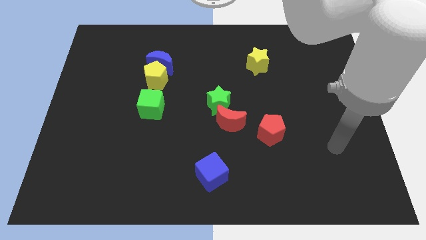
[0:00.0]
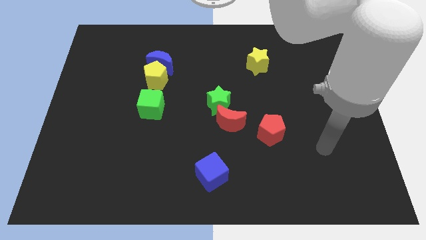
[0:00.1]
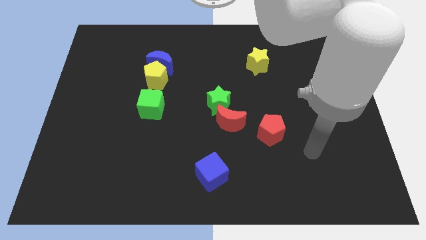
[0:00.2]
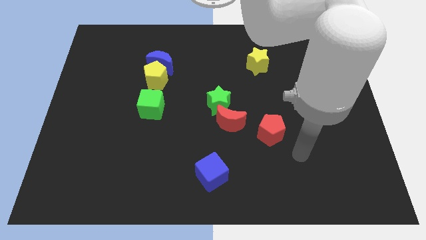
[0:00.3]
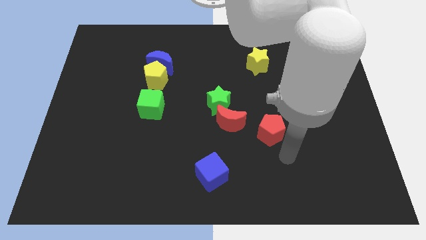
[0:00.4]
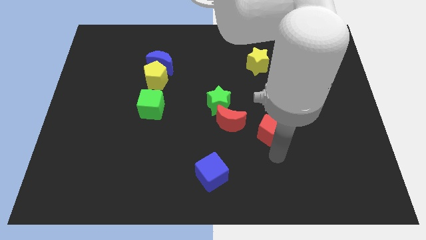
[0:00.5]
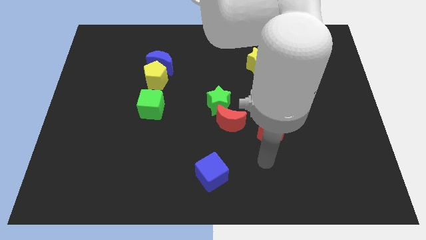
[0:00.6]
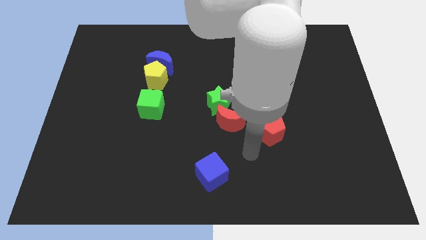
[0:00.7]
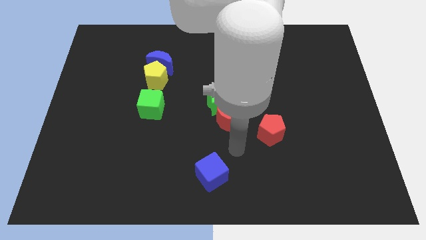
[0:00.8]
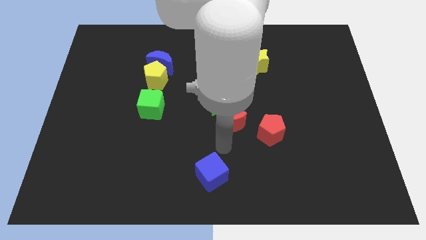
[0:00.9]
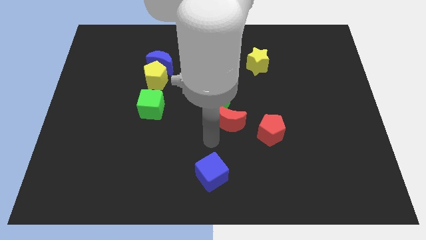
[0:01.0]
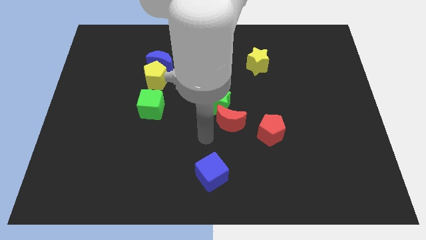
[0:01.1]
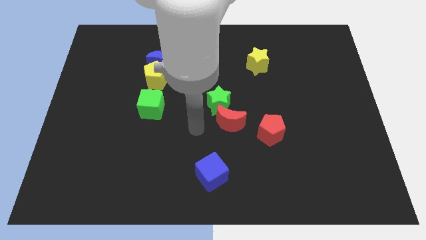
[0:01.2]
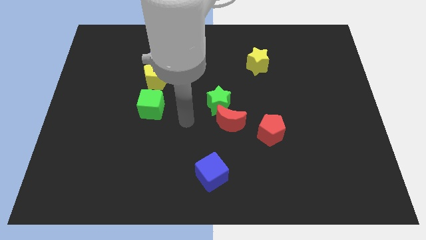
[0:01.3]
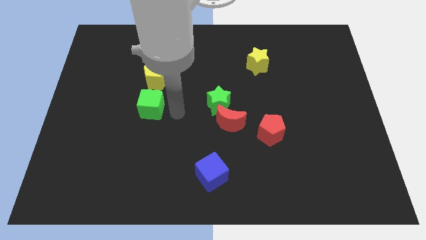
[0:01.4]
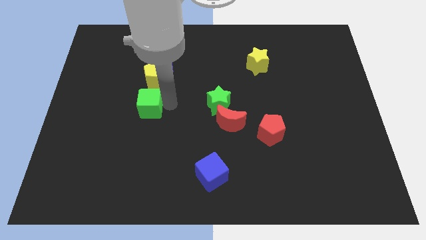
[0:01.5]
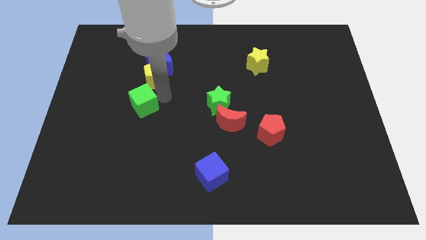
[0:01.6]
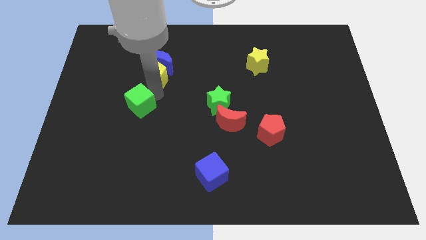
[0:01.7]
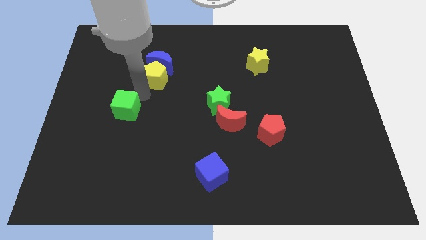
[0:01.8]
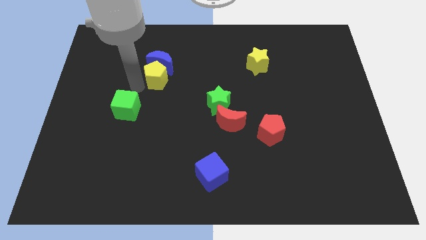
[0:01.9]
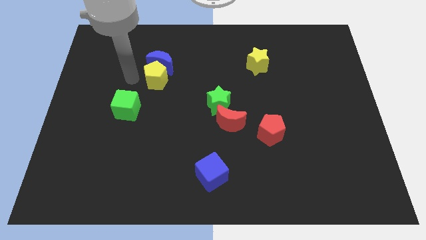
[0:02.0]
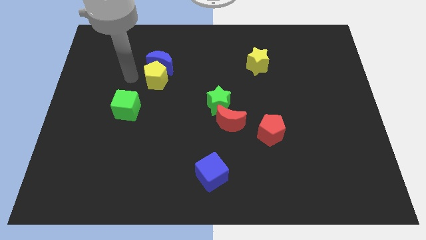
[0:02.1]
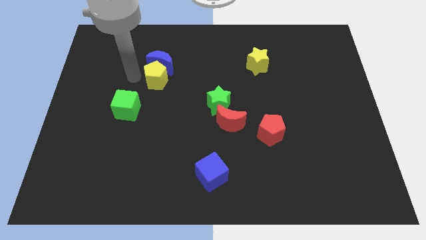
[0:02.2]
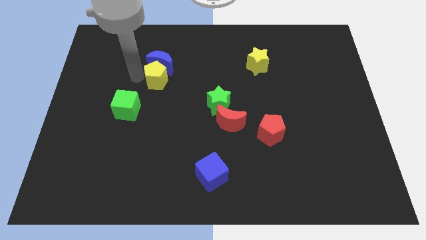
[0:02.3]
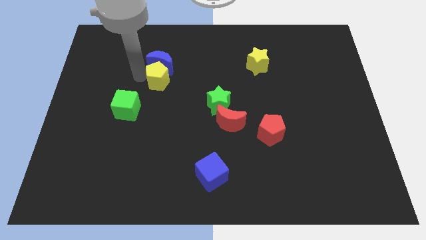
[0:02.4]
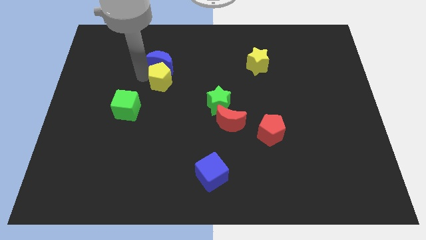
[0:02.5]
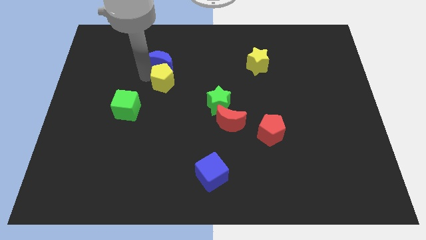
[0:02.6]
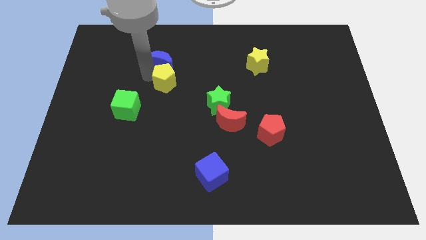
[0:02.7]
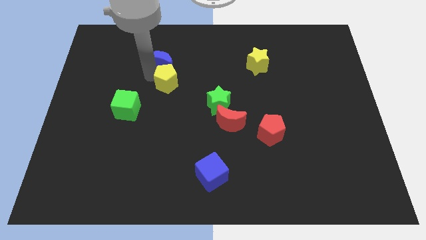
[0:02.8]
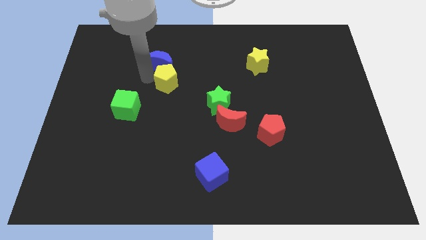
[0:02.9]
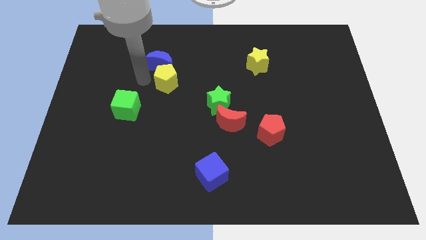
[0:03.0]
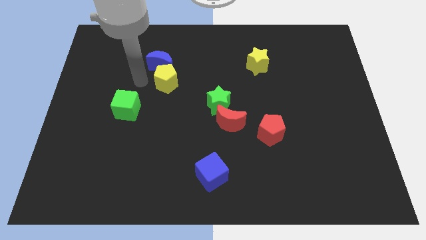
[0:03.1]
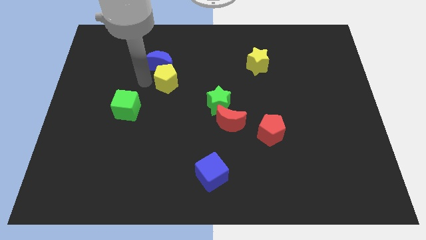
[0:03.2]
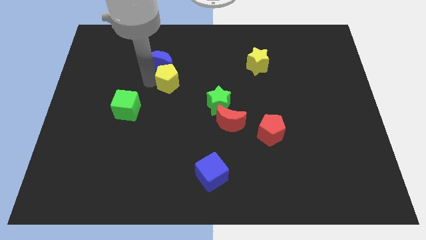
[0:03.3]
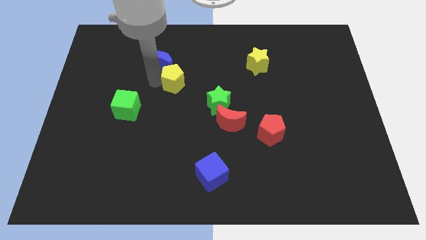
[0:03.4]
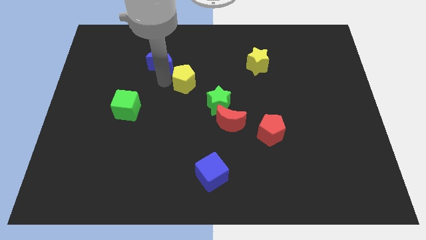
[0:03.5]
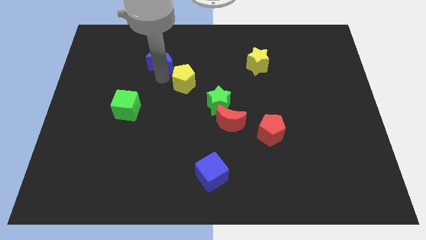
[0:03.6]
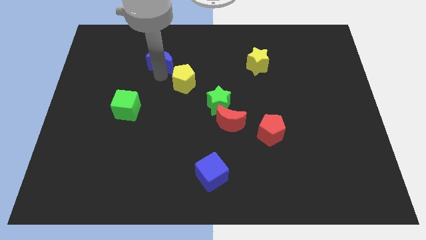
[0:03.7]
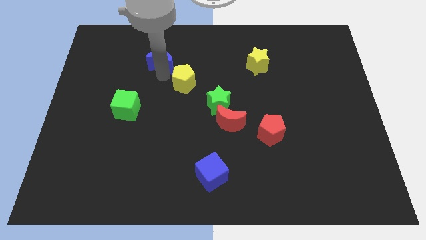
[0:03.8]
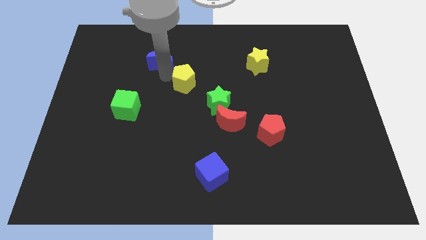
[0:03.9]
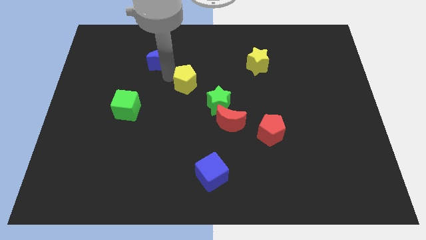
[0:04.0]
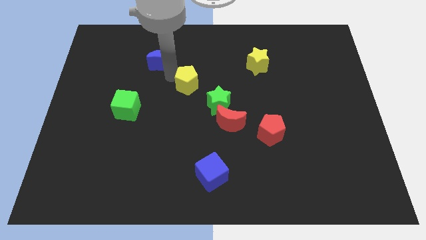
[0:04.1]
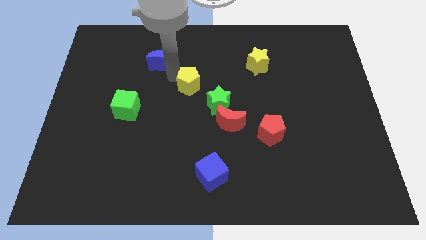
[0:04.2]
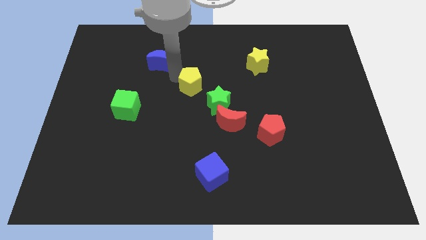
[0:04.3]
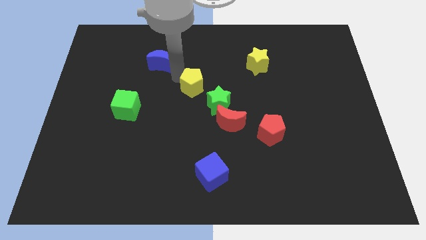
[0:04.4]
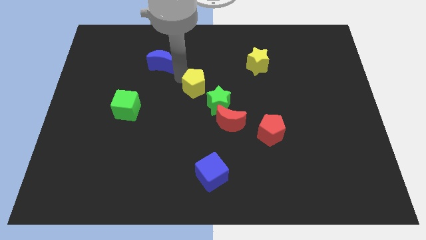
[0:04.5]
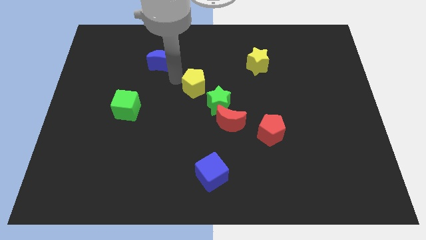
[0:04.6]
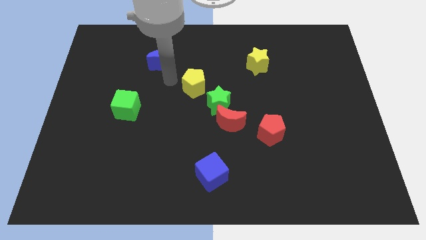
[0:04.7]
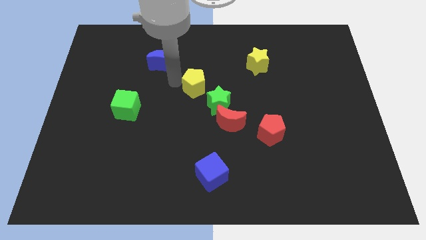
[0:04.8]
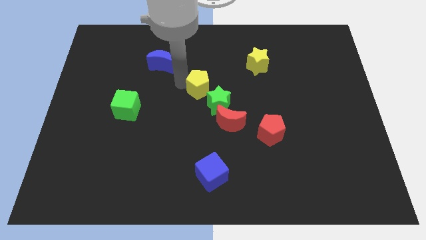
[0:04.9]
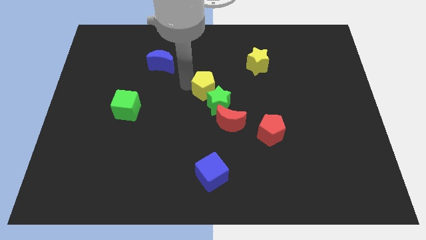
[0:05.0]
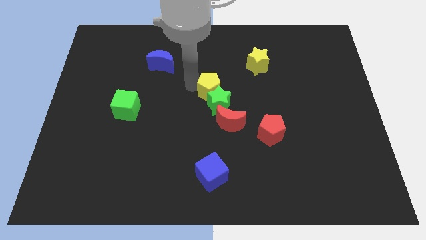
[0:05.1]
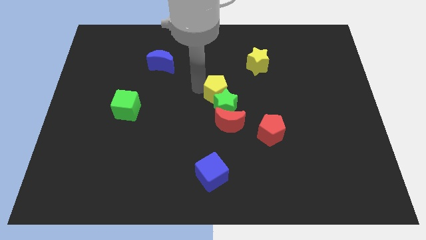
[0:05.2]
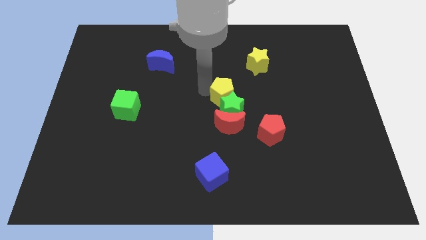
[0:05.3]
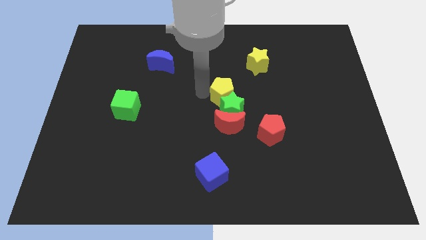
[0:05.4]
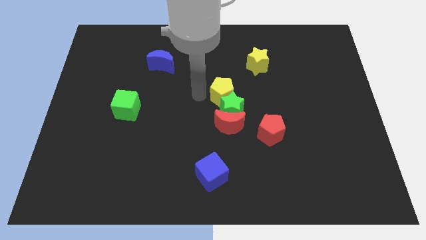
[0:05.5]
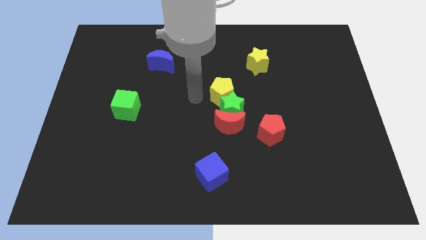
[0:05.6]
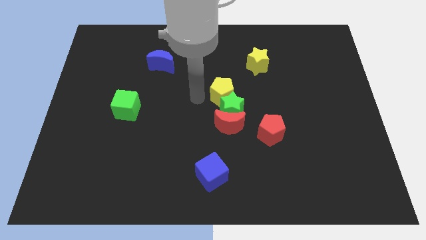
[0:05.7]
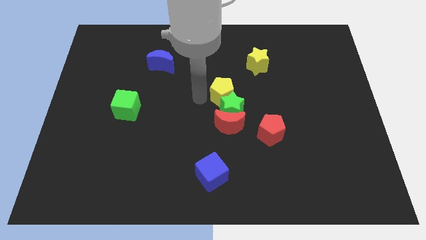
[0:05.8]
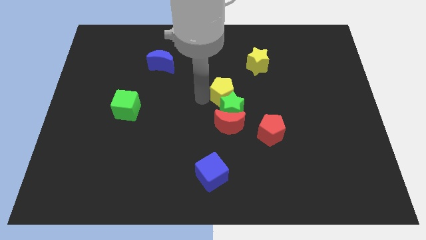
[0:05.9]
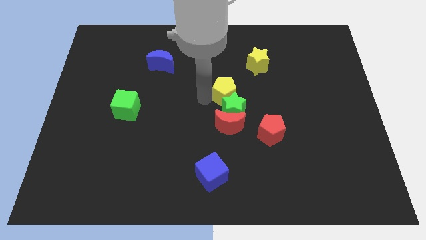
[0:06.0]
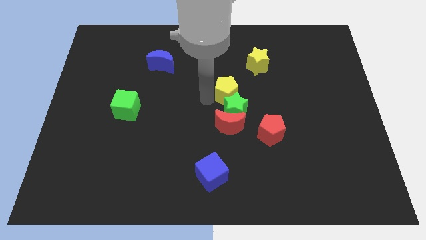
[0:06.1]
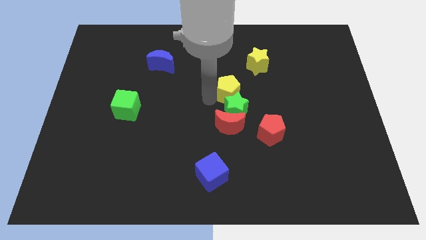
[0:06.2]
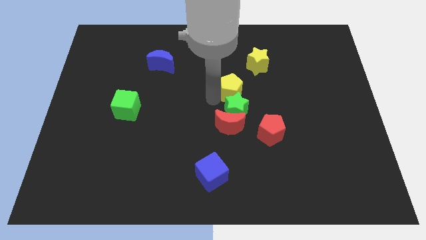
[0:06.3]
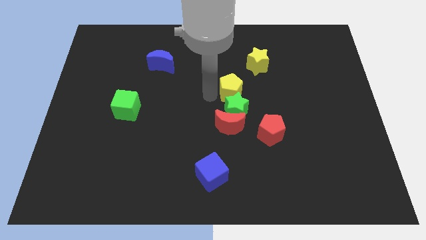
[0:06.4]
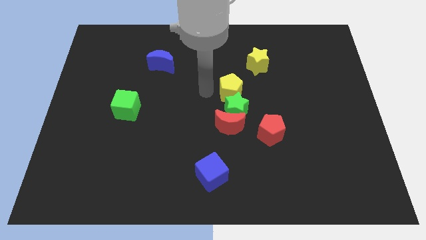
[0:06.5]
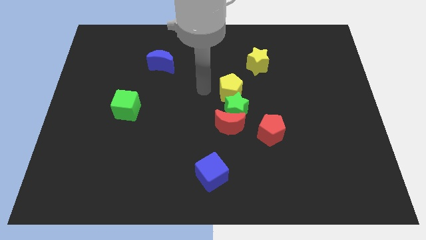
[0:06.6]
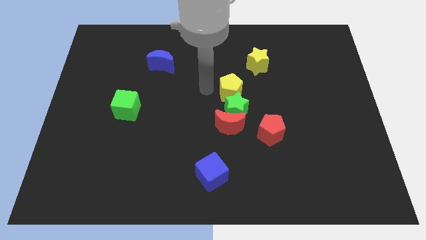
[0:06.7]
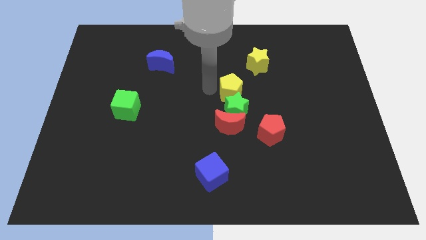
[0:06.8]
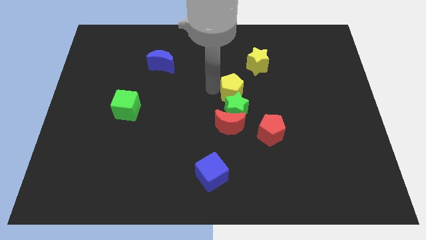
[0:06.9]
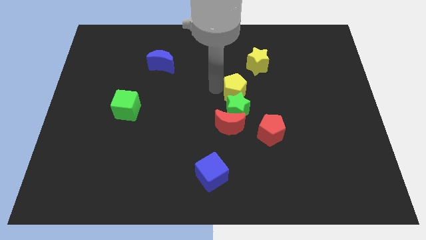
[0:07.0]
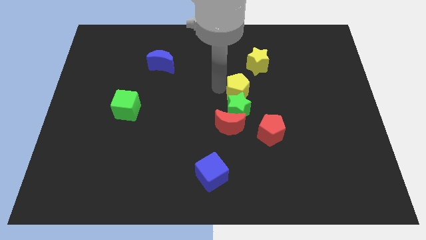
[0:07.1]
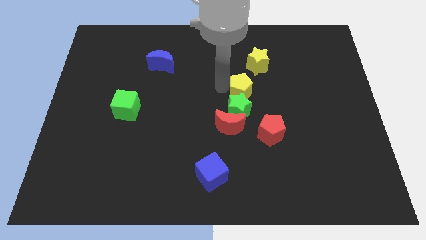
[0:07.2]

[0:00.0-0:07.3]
put the yellow pentagon to the bottom side of the yellow star
